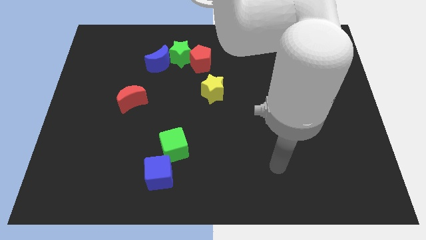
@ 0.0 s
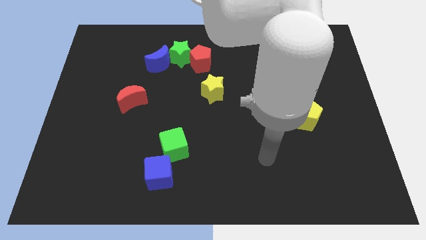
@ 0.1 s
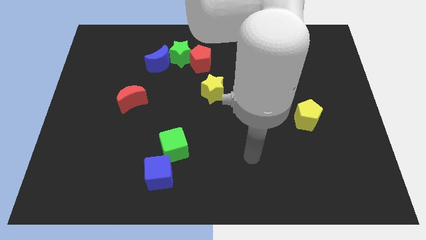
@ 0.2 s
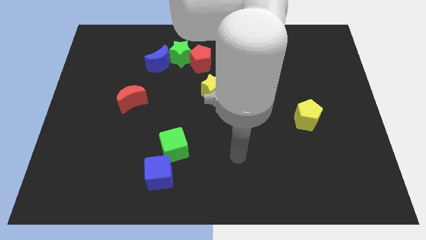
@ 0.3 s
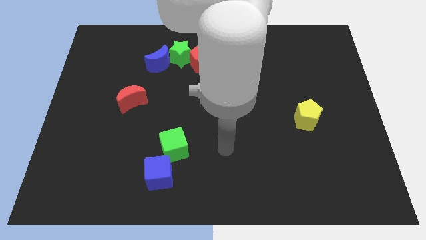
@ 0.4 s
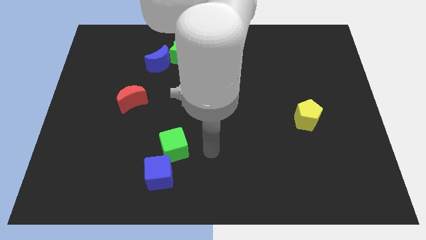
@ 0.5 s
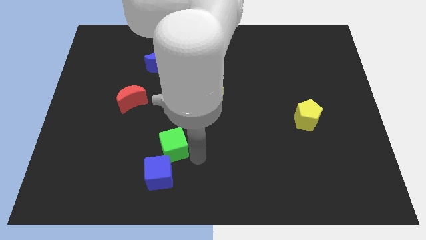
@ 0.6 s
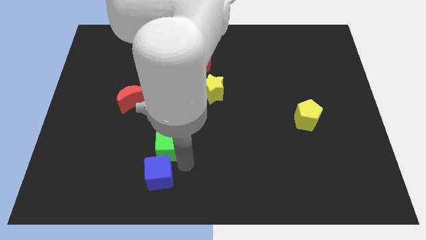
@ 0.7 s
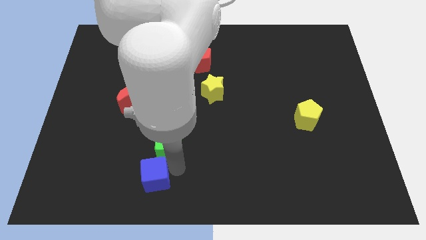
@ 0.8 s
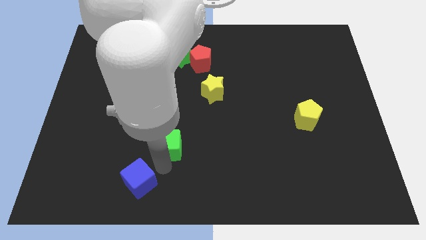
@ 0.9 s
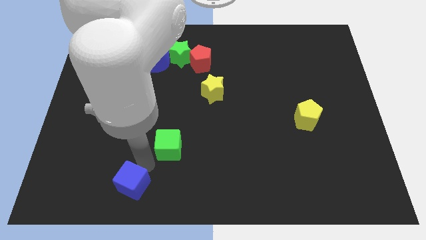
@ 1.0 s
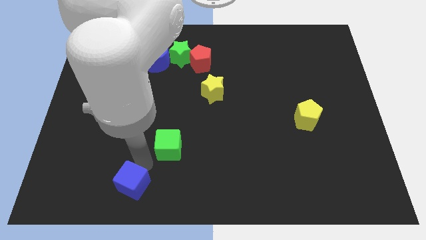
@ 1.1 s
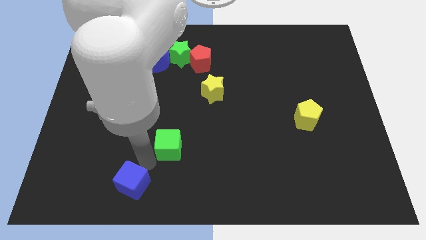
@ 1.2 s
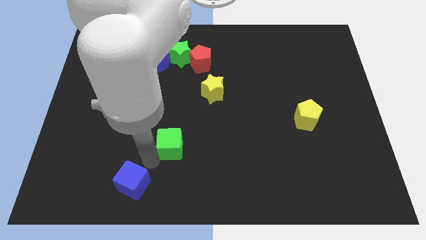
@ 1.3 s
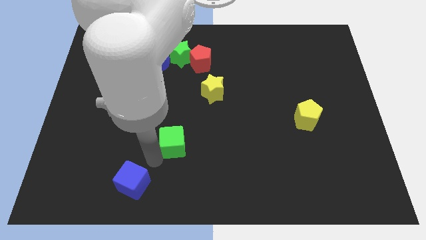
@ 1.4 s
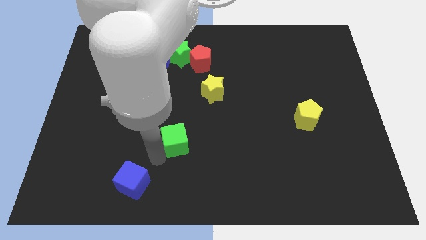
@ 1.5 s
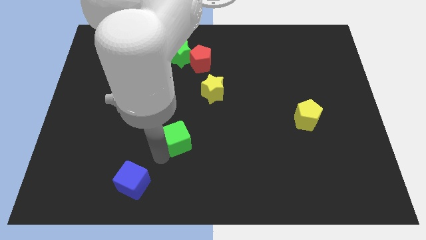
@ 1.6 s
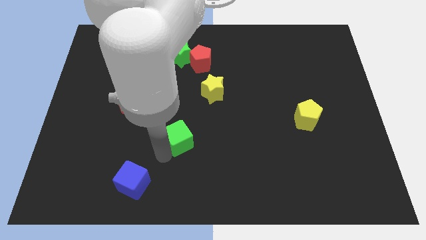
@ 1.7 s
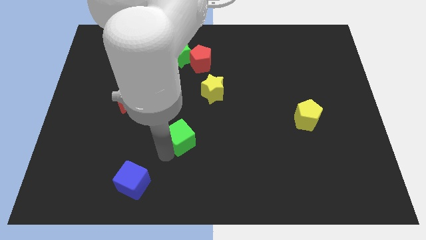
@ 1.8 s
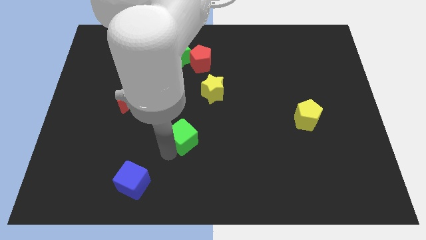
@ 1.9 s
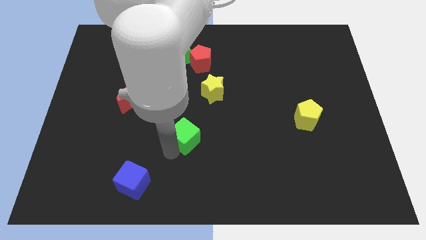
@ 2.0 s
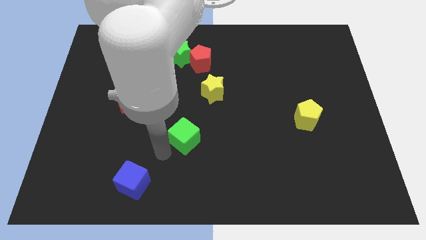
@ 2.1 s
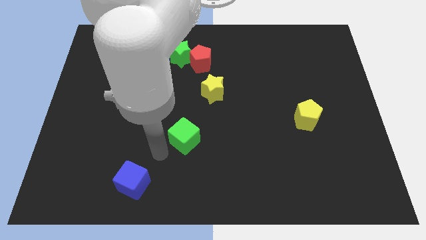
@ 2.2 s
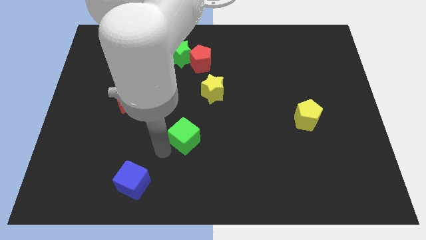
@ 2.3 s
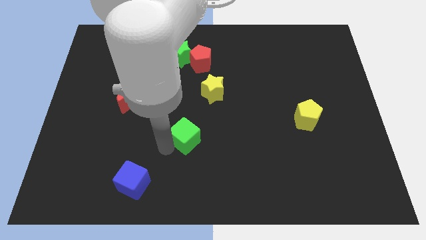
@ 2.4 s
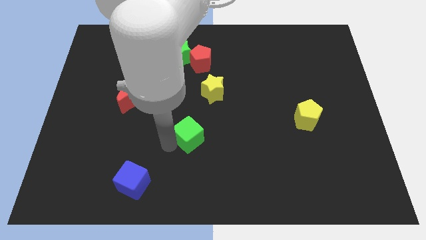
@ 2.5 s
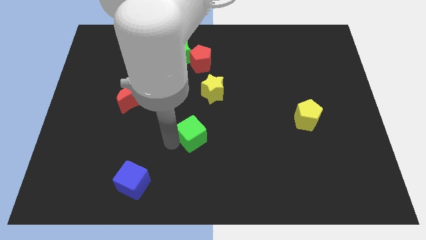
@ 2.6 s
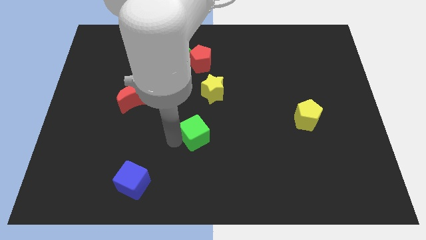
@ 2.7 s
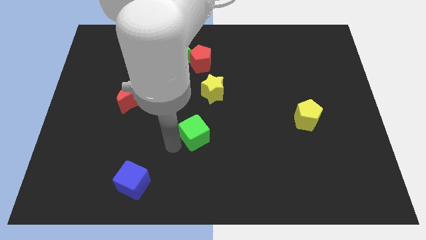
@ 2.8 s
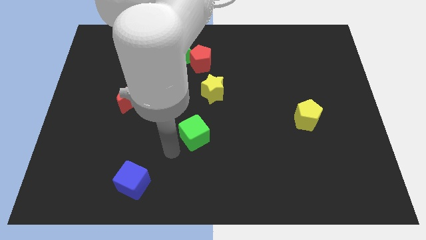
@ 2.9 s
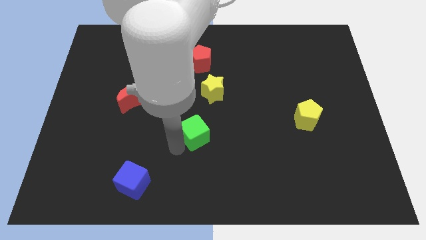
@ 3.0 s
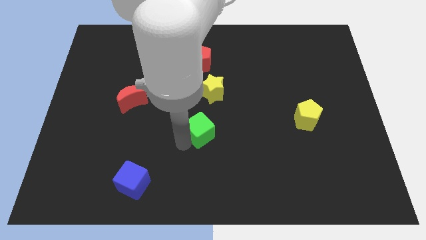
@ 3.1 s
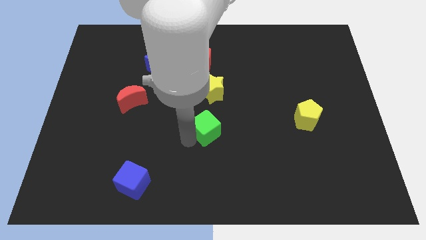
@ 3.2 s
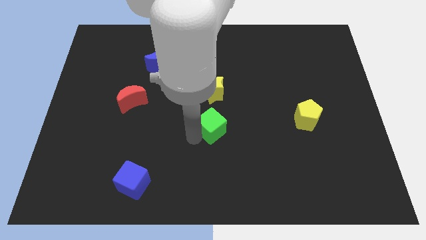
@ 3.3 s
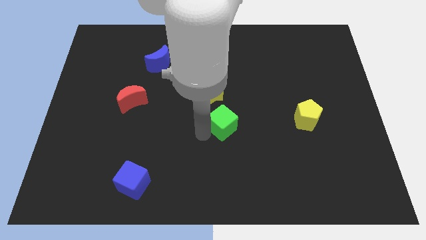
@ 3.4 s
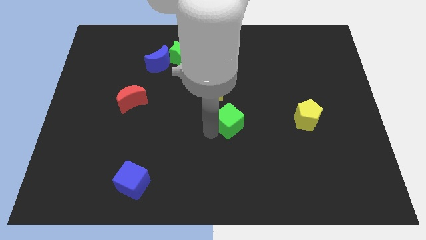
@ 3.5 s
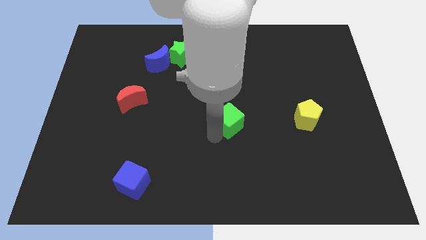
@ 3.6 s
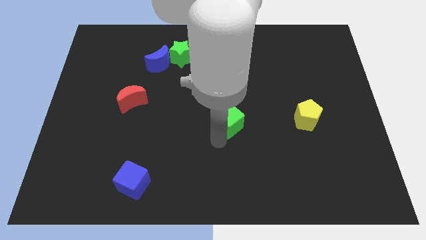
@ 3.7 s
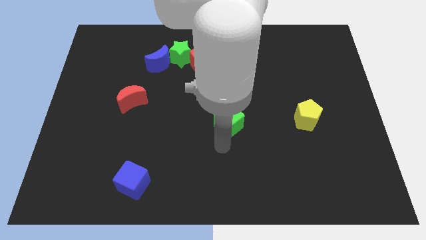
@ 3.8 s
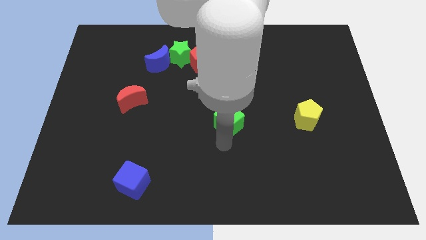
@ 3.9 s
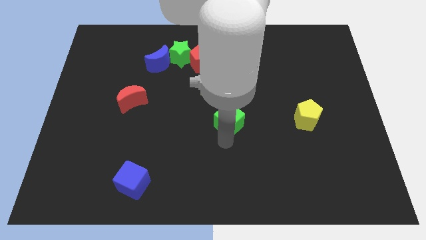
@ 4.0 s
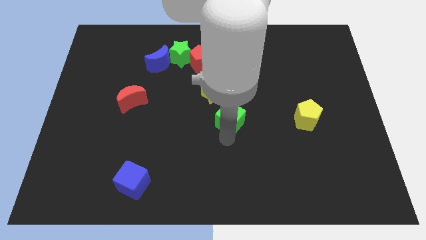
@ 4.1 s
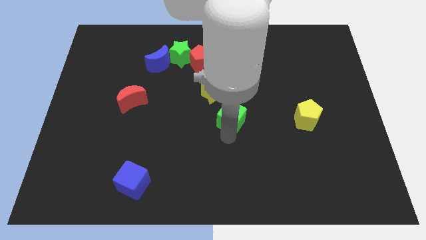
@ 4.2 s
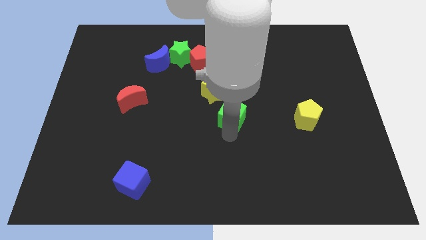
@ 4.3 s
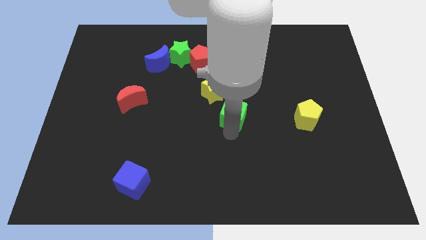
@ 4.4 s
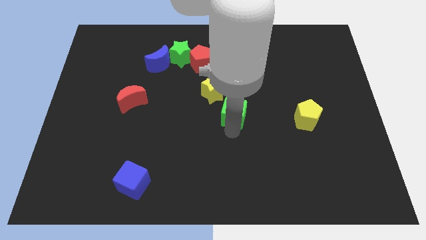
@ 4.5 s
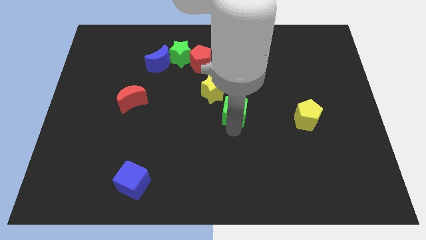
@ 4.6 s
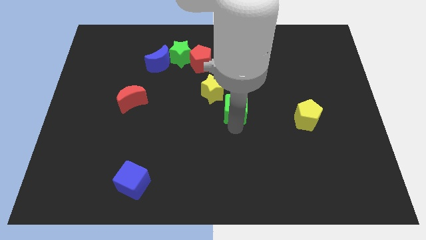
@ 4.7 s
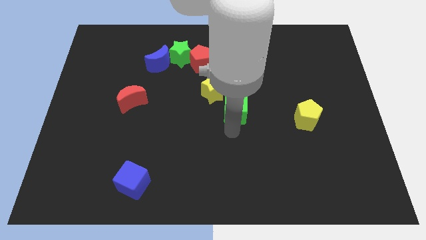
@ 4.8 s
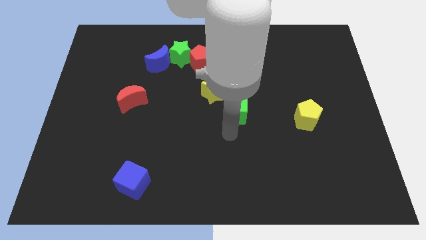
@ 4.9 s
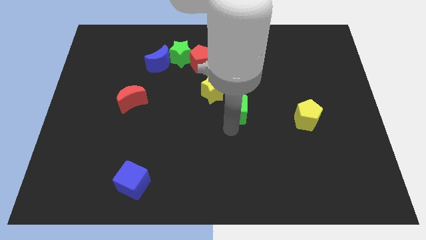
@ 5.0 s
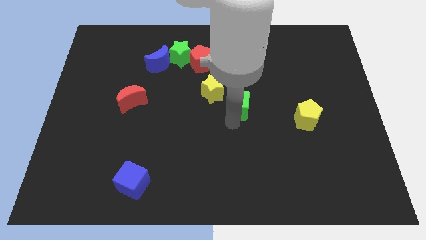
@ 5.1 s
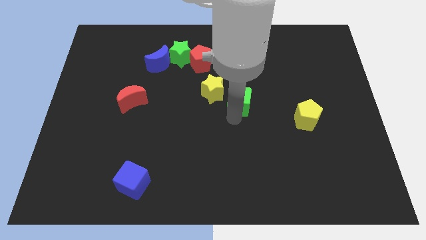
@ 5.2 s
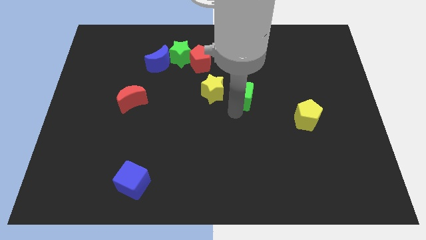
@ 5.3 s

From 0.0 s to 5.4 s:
move the green cube diagonally upwards and right

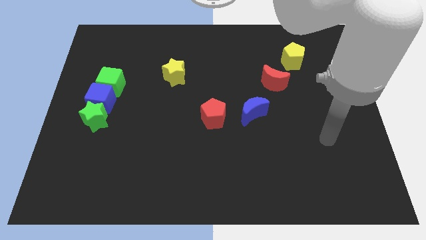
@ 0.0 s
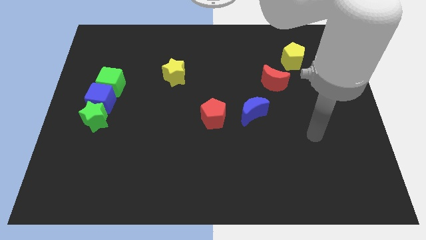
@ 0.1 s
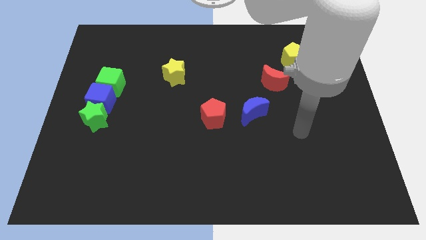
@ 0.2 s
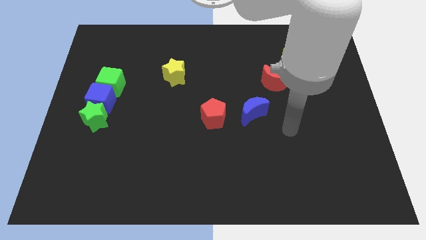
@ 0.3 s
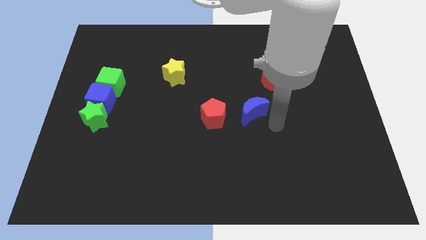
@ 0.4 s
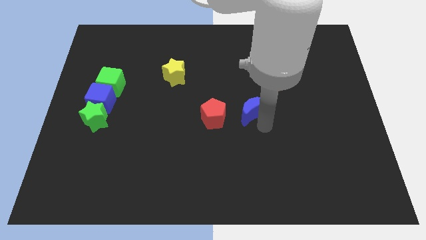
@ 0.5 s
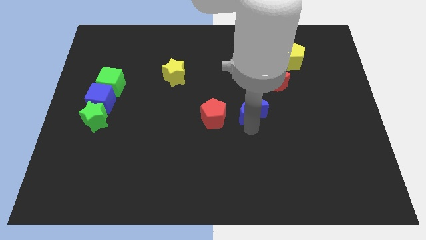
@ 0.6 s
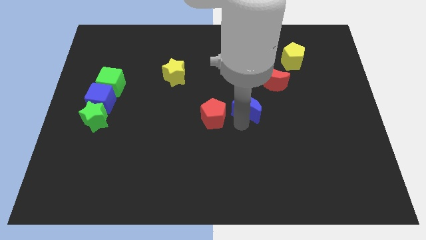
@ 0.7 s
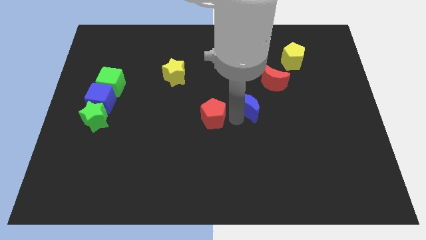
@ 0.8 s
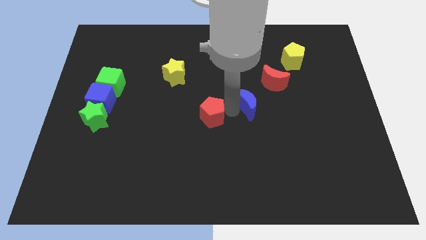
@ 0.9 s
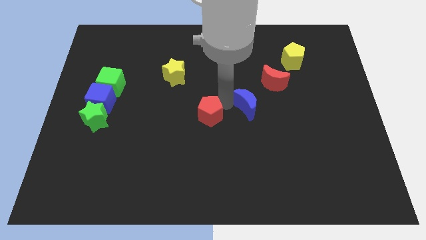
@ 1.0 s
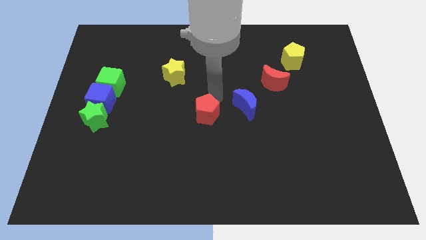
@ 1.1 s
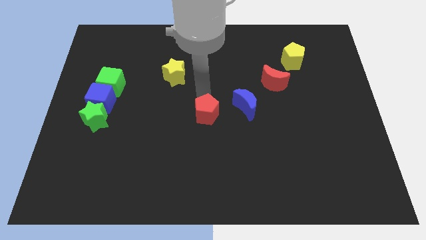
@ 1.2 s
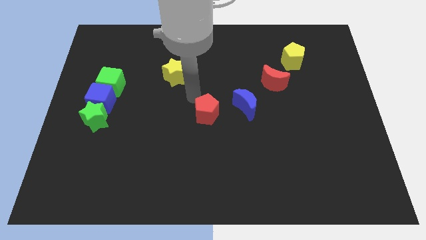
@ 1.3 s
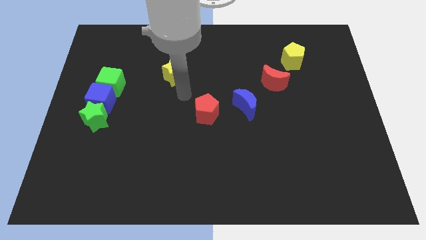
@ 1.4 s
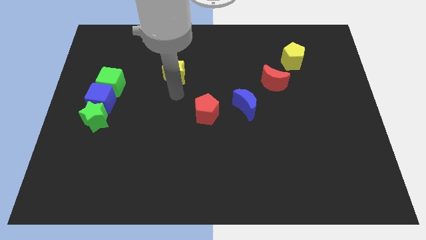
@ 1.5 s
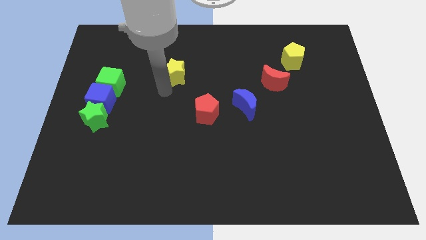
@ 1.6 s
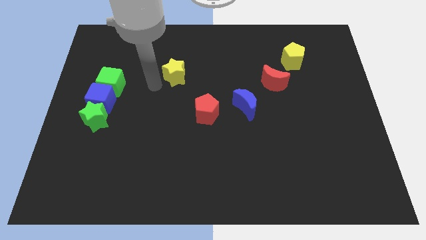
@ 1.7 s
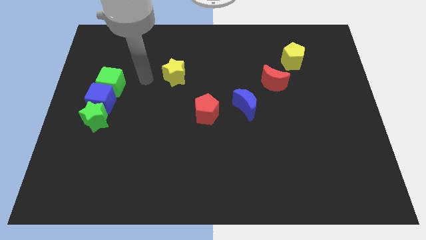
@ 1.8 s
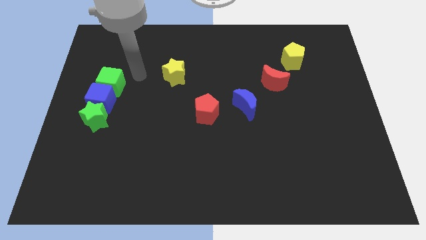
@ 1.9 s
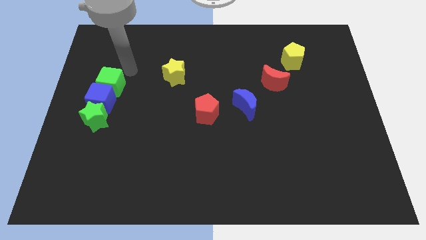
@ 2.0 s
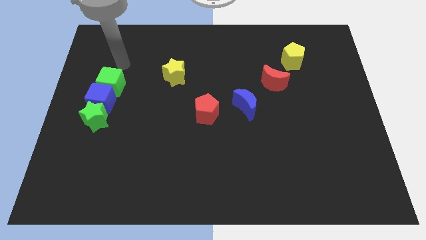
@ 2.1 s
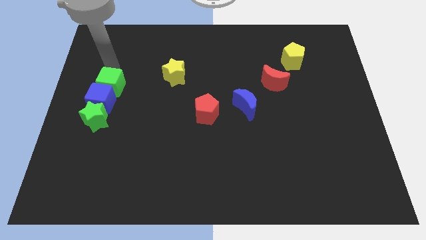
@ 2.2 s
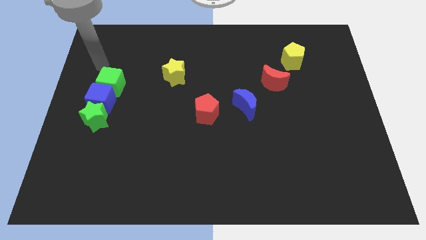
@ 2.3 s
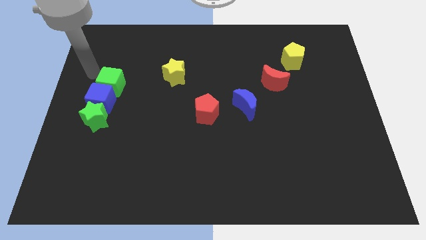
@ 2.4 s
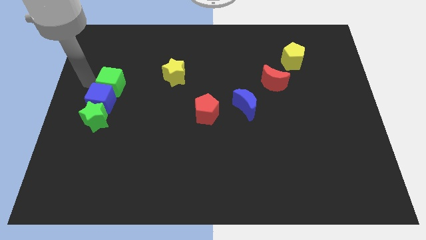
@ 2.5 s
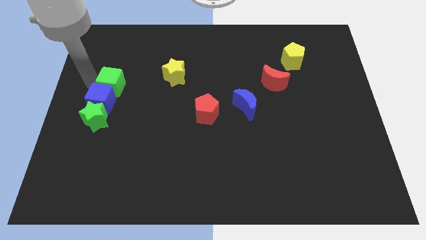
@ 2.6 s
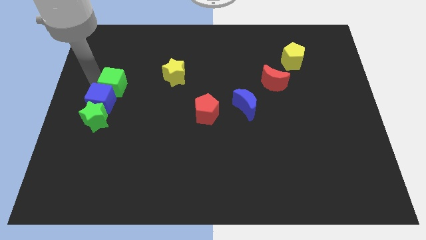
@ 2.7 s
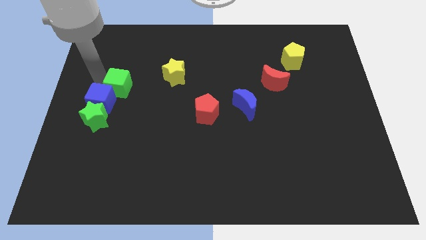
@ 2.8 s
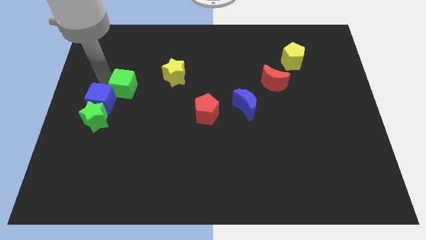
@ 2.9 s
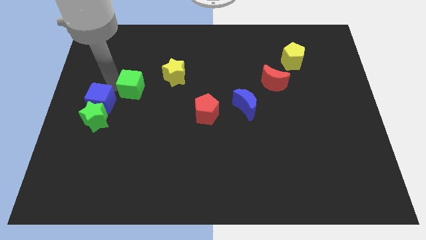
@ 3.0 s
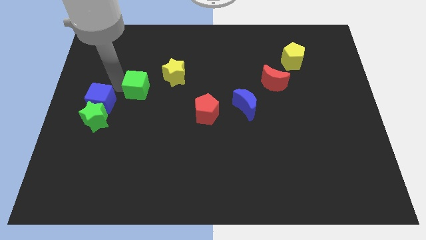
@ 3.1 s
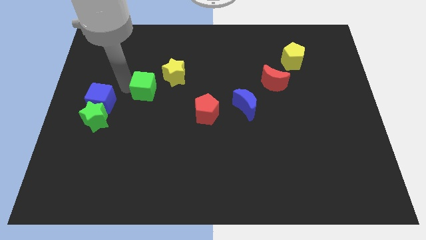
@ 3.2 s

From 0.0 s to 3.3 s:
slightly push the green cube right
